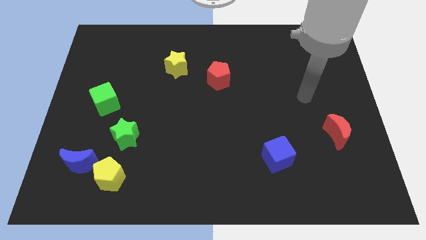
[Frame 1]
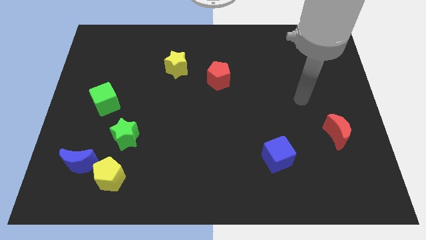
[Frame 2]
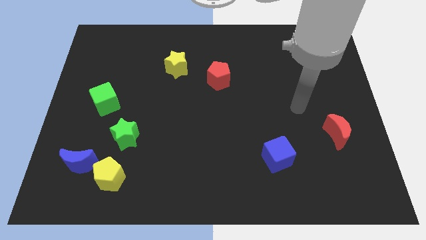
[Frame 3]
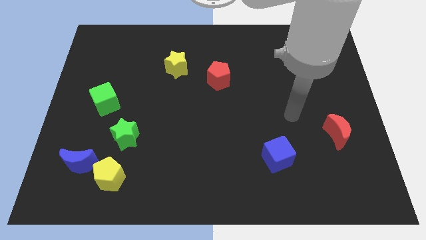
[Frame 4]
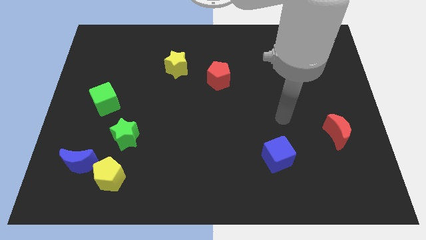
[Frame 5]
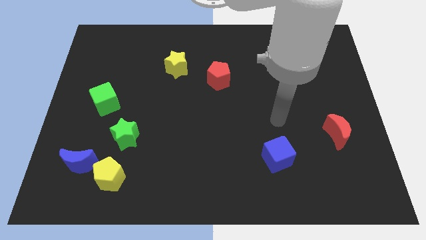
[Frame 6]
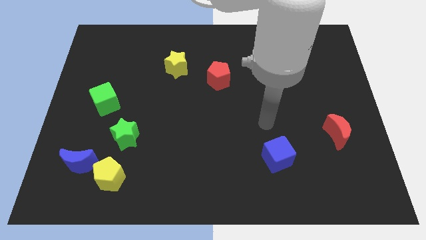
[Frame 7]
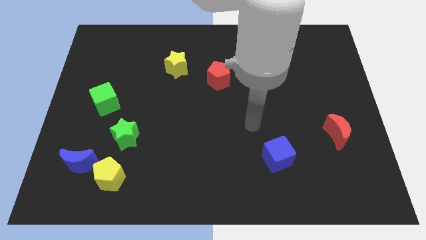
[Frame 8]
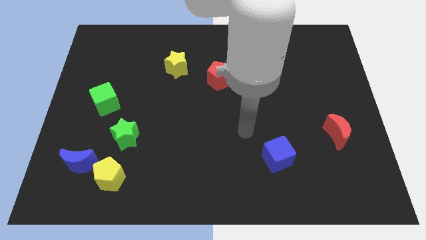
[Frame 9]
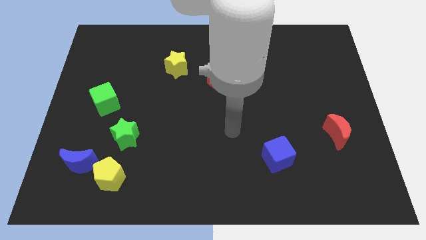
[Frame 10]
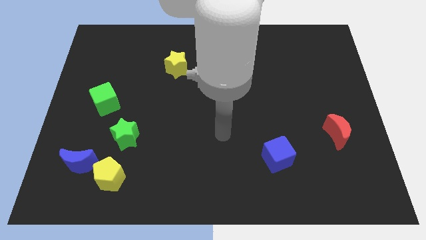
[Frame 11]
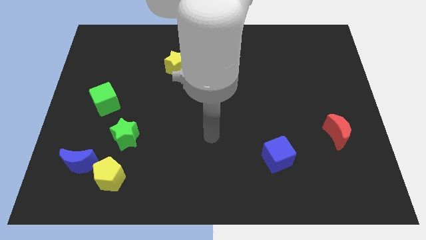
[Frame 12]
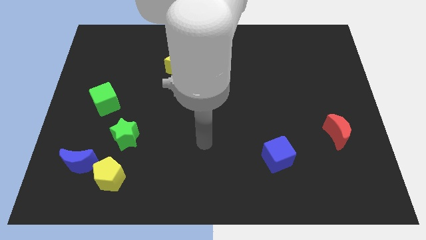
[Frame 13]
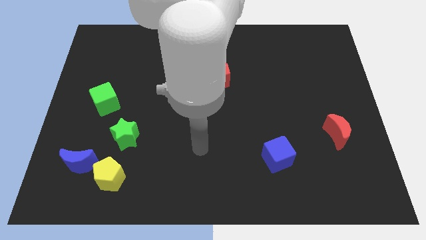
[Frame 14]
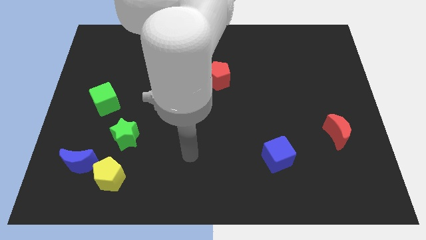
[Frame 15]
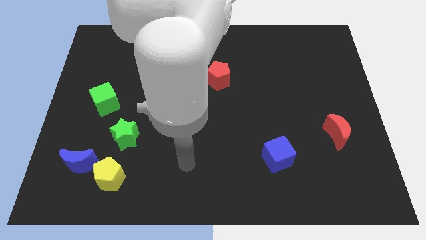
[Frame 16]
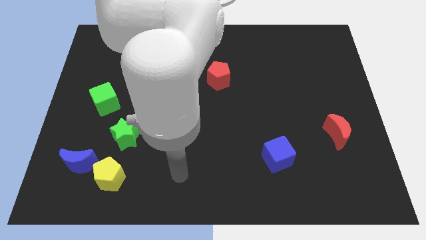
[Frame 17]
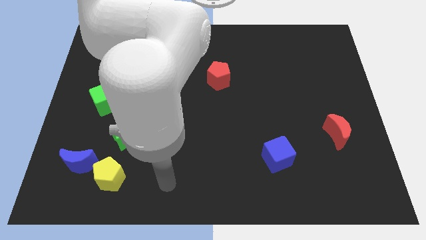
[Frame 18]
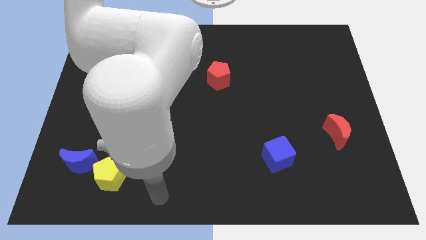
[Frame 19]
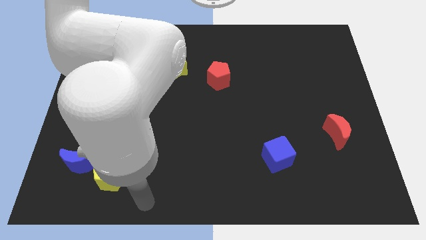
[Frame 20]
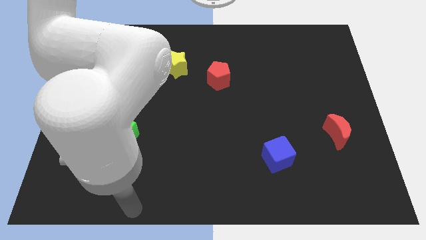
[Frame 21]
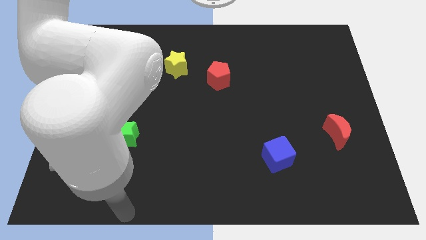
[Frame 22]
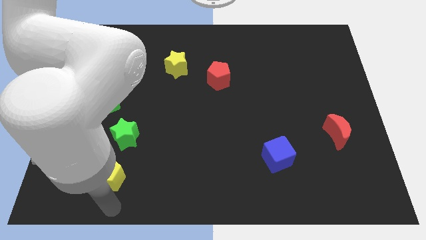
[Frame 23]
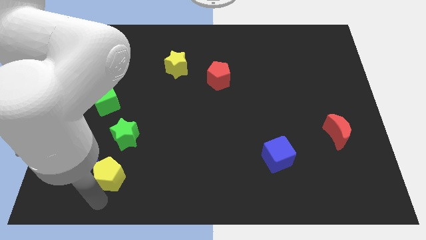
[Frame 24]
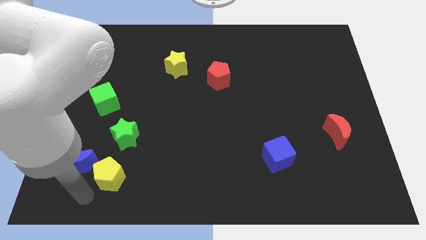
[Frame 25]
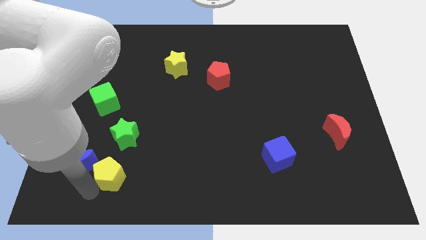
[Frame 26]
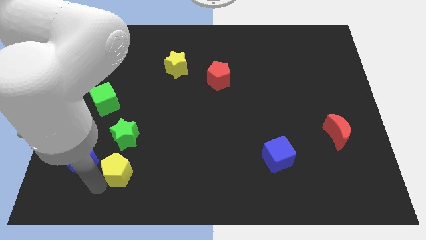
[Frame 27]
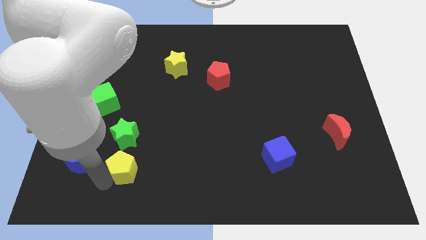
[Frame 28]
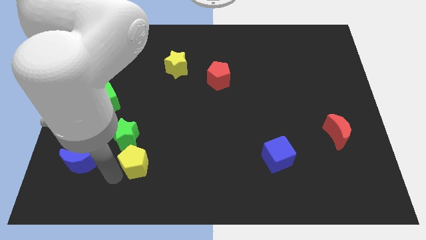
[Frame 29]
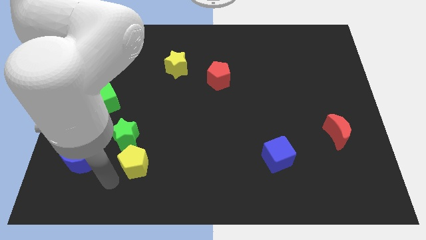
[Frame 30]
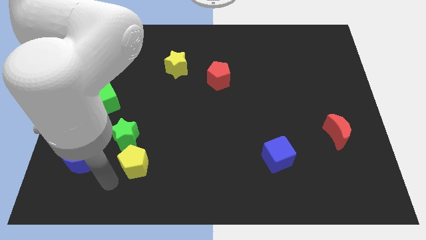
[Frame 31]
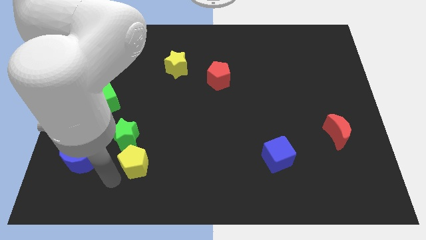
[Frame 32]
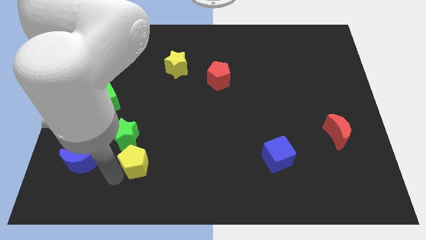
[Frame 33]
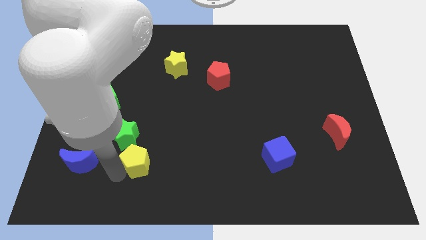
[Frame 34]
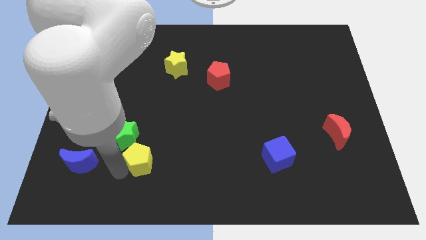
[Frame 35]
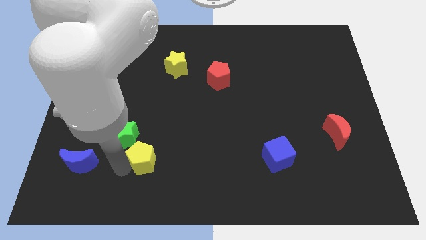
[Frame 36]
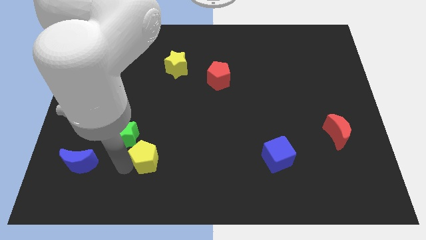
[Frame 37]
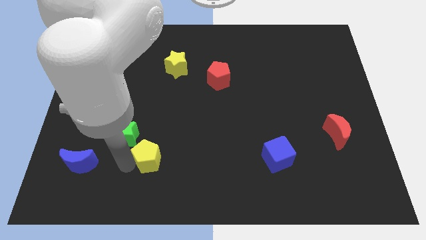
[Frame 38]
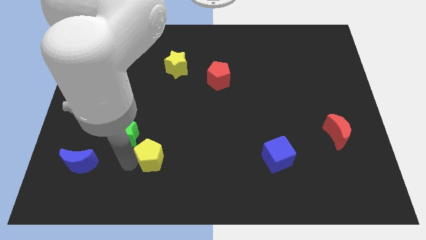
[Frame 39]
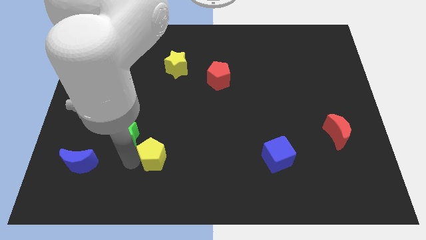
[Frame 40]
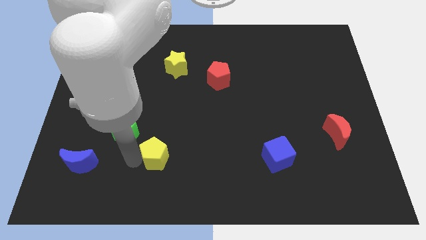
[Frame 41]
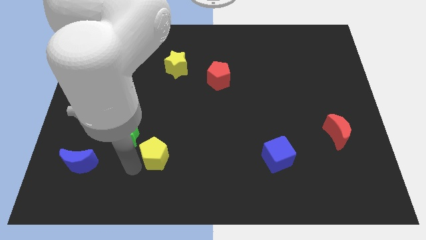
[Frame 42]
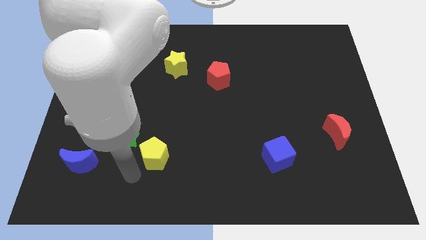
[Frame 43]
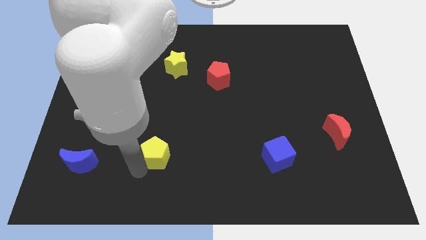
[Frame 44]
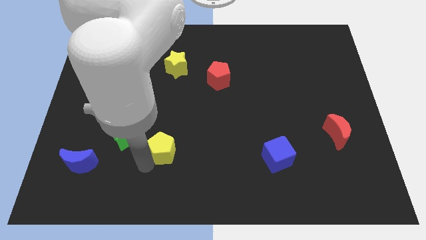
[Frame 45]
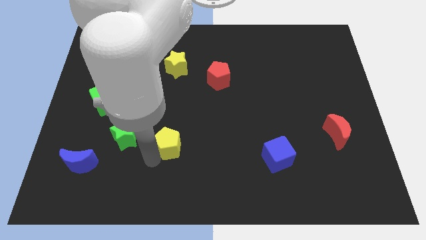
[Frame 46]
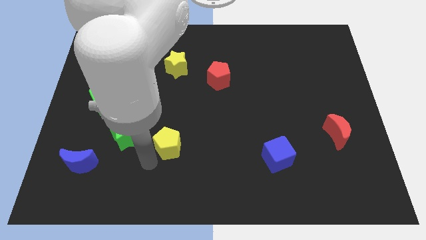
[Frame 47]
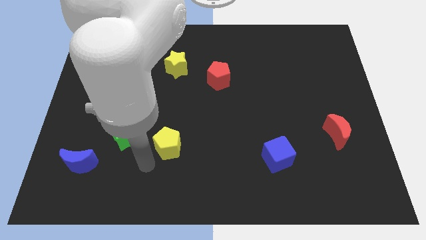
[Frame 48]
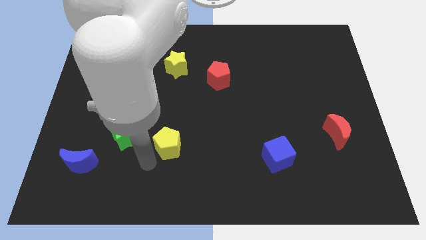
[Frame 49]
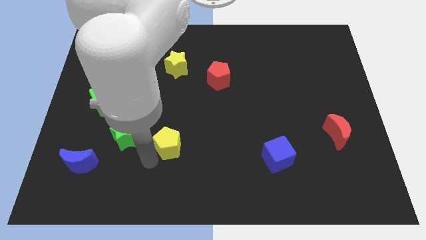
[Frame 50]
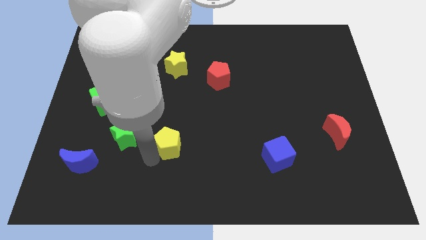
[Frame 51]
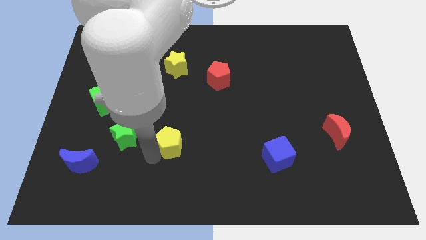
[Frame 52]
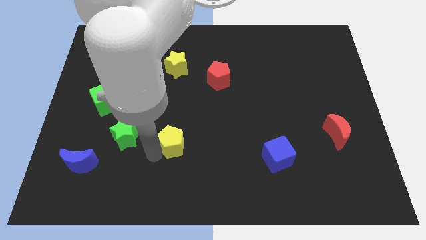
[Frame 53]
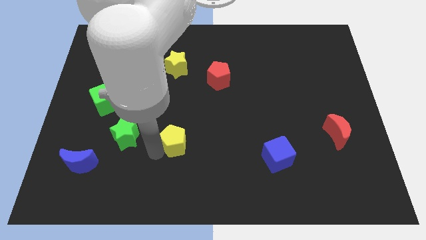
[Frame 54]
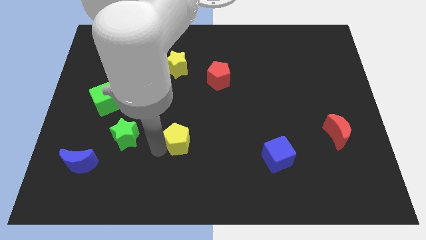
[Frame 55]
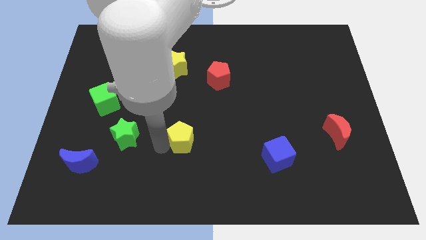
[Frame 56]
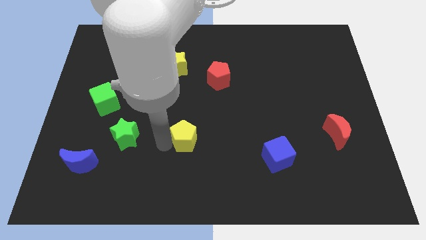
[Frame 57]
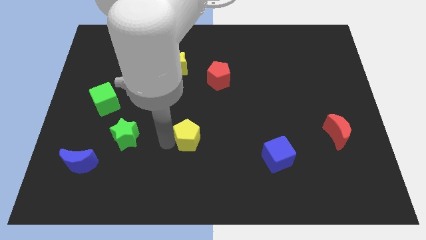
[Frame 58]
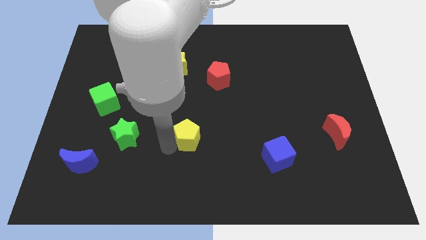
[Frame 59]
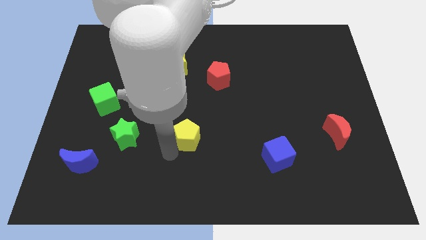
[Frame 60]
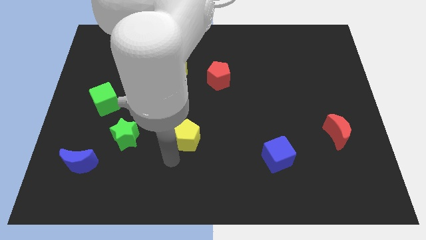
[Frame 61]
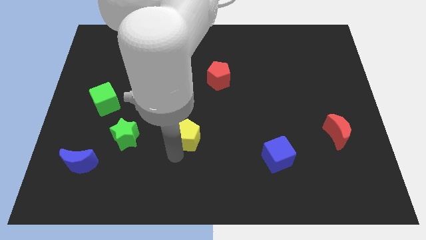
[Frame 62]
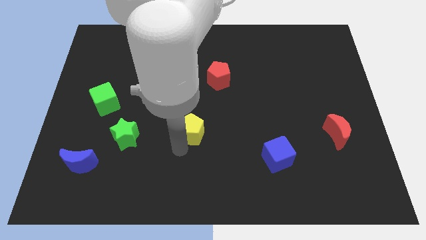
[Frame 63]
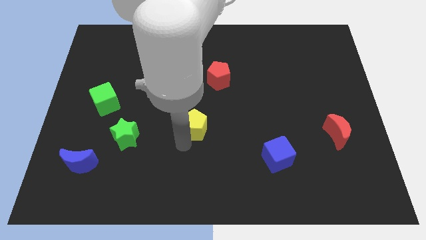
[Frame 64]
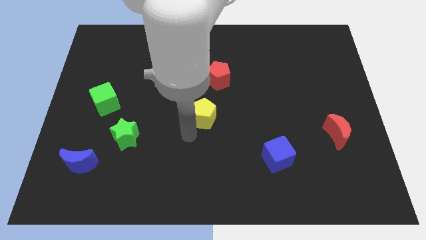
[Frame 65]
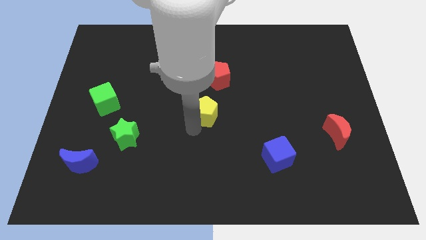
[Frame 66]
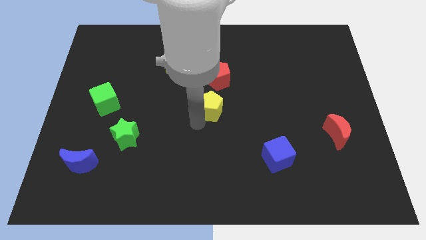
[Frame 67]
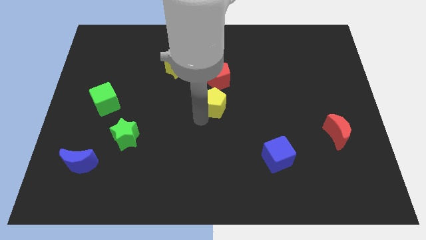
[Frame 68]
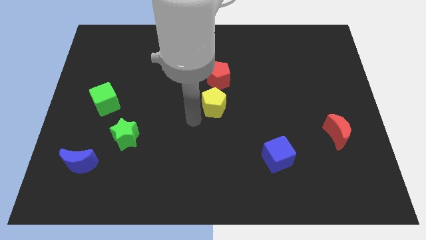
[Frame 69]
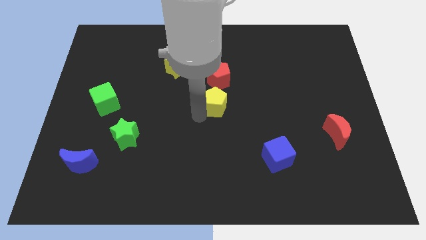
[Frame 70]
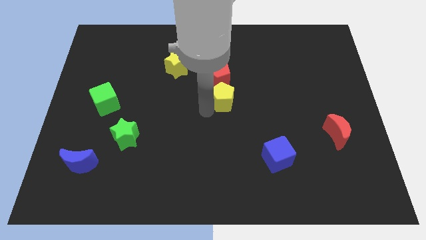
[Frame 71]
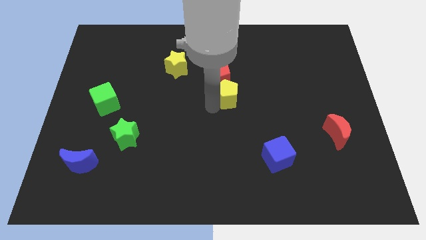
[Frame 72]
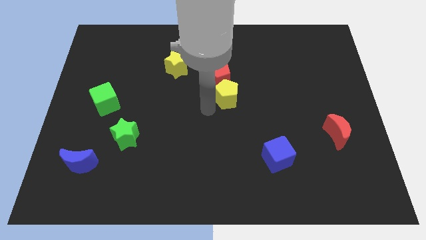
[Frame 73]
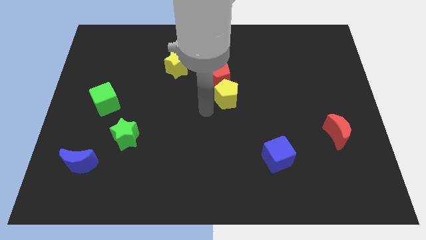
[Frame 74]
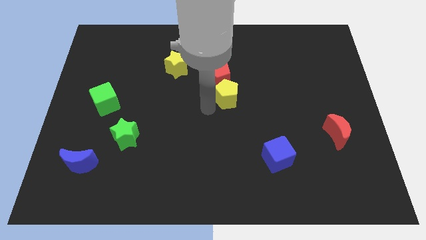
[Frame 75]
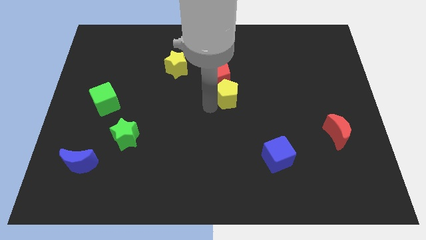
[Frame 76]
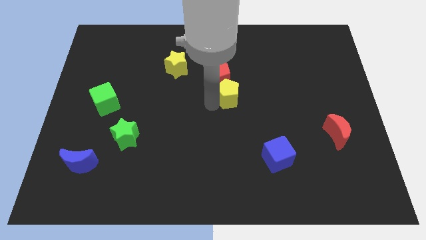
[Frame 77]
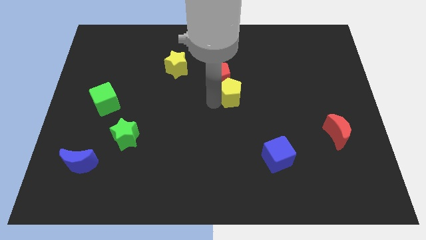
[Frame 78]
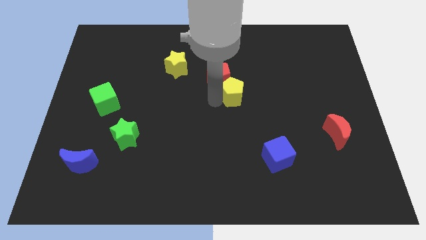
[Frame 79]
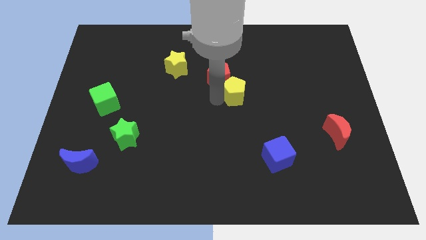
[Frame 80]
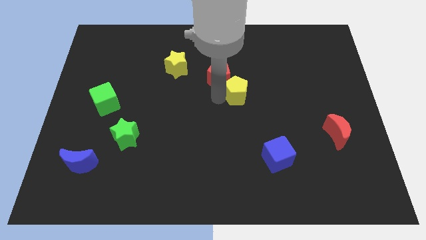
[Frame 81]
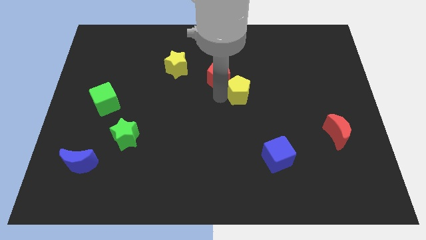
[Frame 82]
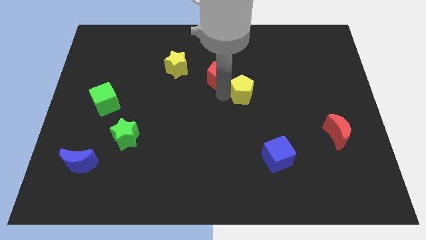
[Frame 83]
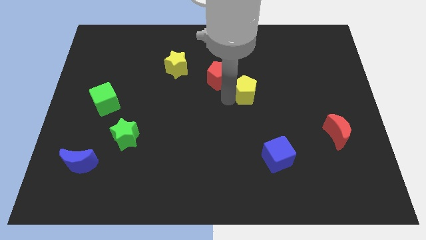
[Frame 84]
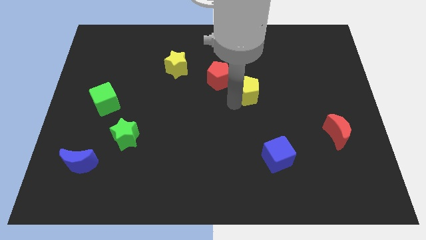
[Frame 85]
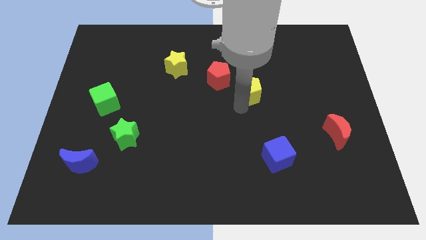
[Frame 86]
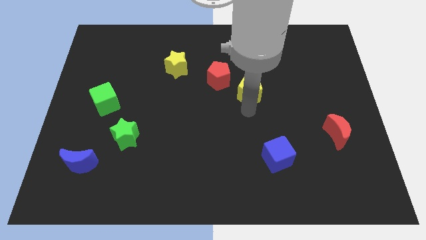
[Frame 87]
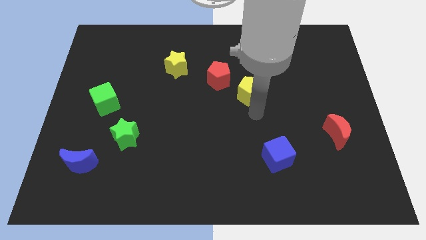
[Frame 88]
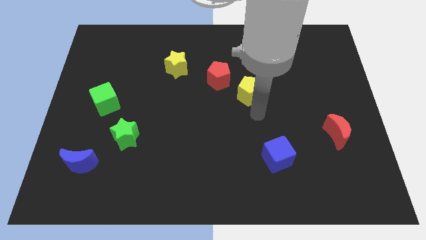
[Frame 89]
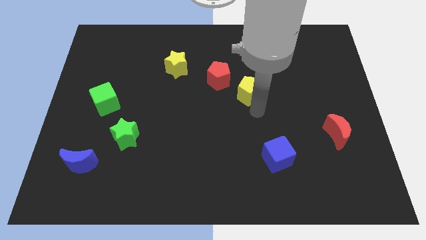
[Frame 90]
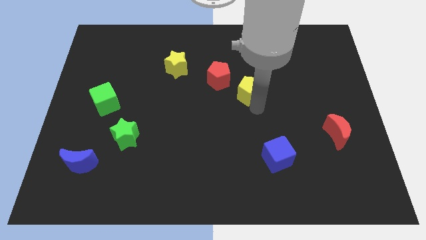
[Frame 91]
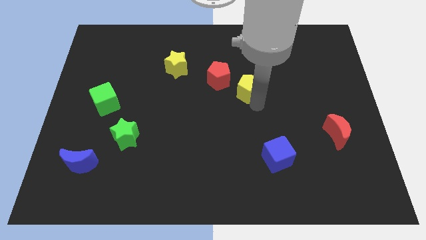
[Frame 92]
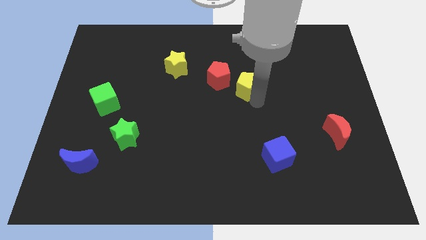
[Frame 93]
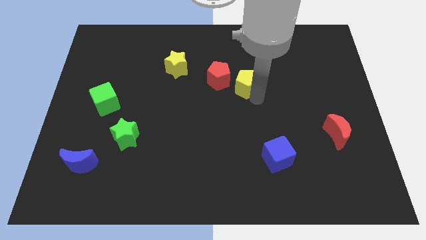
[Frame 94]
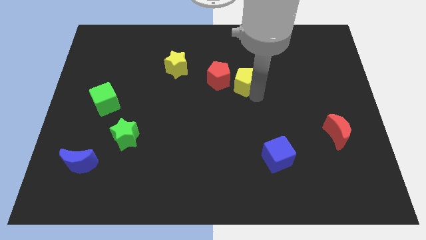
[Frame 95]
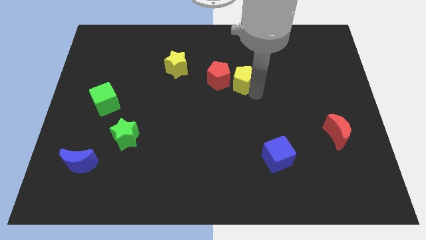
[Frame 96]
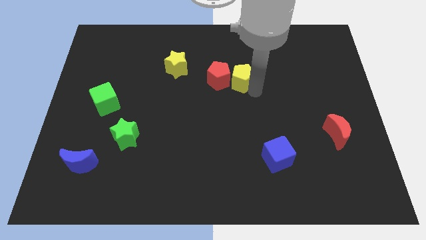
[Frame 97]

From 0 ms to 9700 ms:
slide the yellow pentagon diagonally up and to the right of the red pentagon
